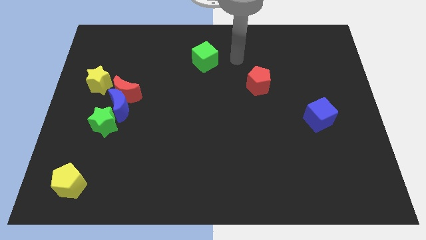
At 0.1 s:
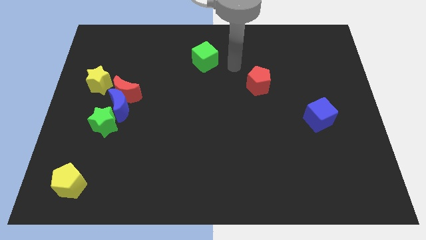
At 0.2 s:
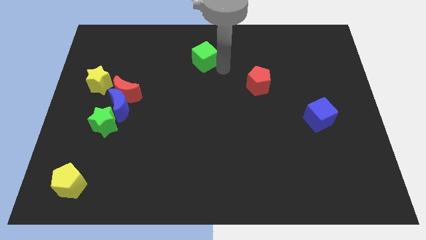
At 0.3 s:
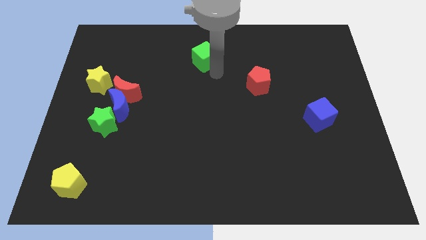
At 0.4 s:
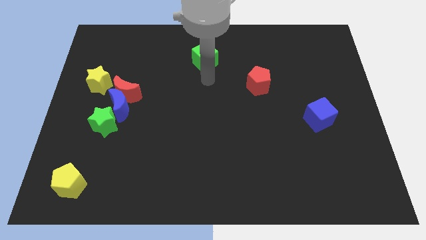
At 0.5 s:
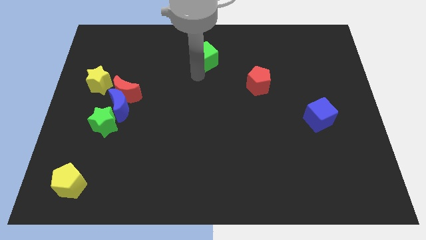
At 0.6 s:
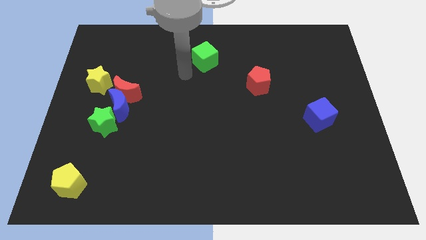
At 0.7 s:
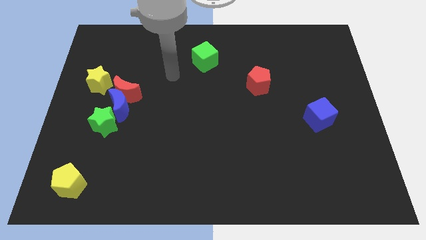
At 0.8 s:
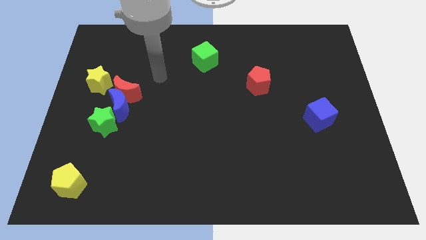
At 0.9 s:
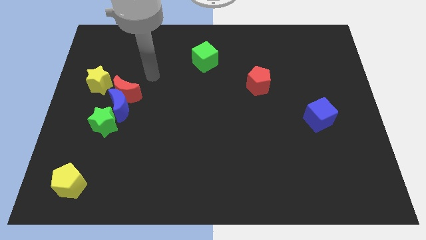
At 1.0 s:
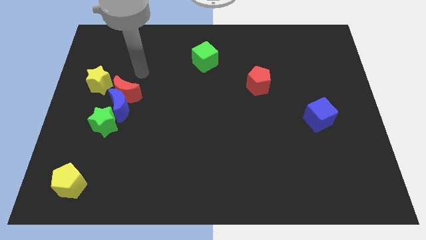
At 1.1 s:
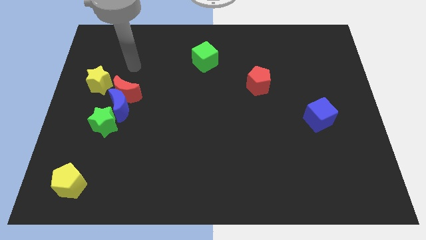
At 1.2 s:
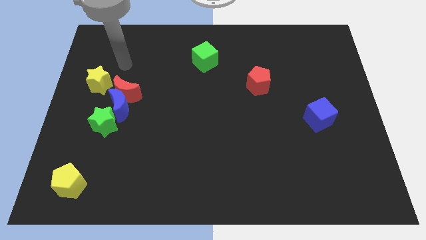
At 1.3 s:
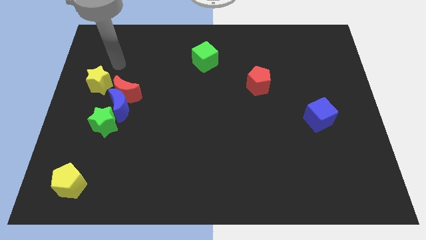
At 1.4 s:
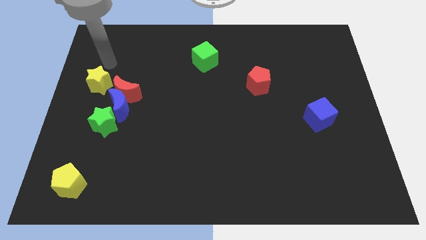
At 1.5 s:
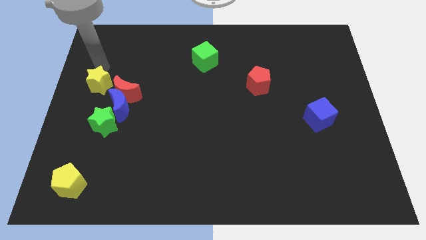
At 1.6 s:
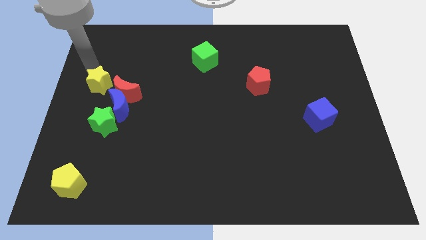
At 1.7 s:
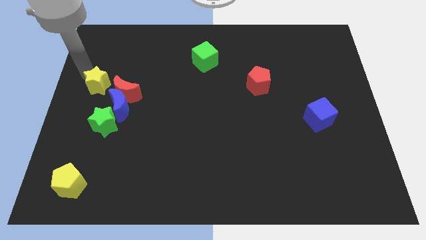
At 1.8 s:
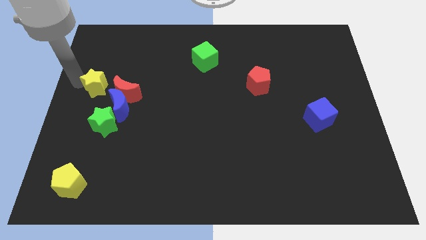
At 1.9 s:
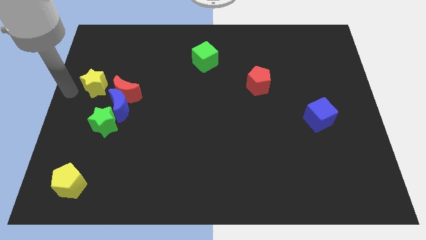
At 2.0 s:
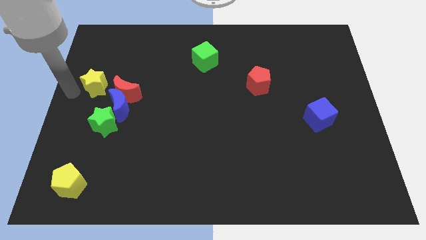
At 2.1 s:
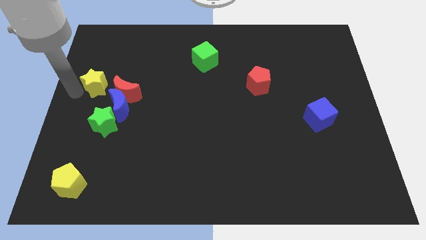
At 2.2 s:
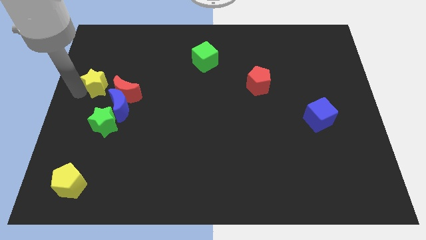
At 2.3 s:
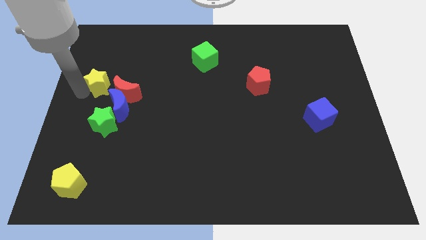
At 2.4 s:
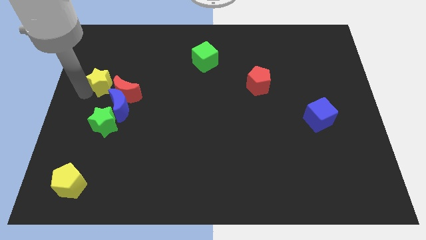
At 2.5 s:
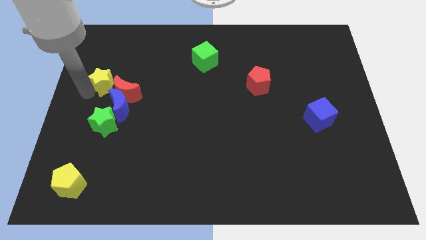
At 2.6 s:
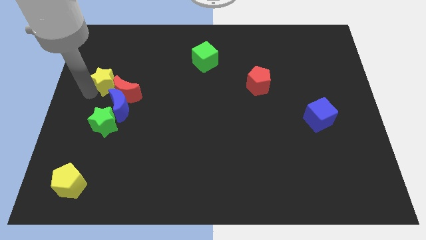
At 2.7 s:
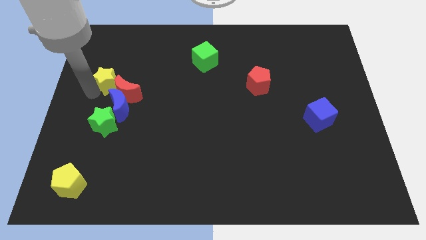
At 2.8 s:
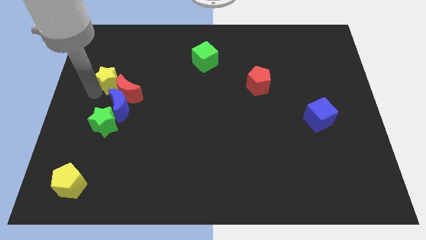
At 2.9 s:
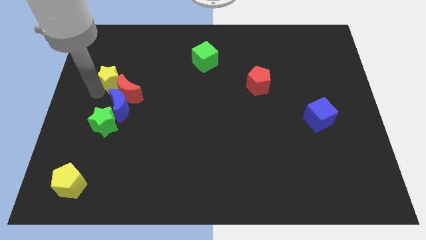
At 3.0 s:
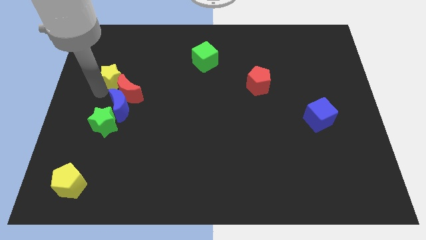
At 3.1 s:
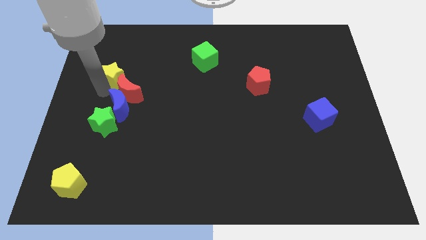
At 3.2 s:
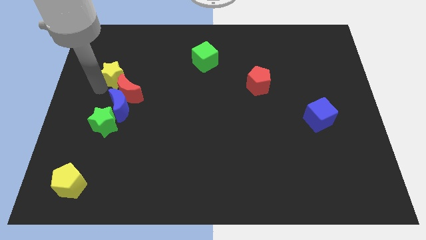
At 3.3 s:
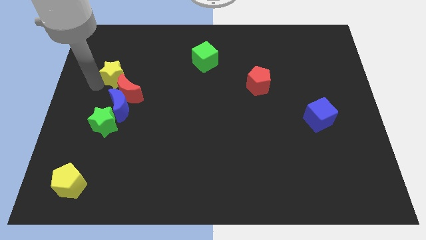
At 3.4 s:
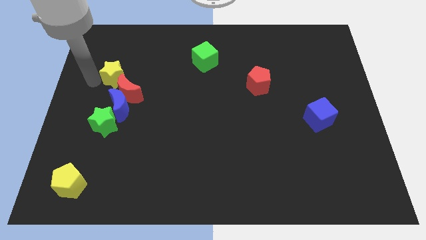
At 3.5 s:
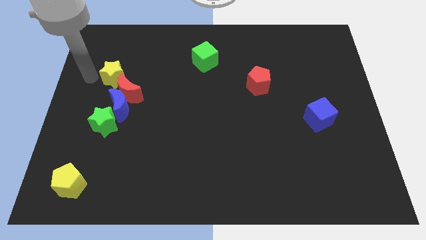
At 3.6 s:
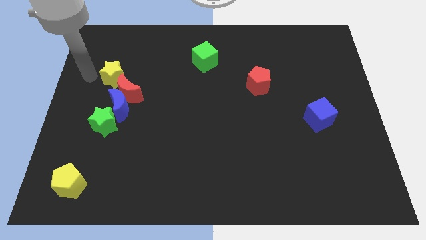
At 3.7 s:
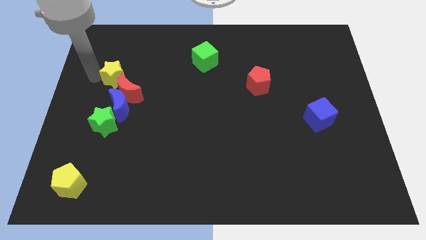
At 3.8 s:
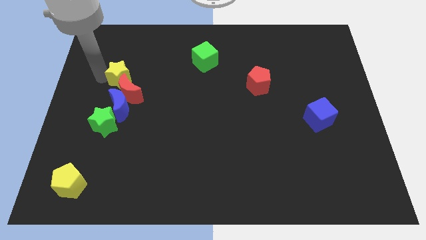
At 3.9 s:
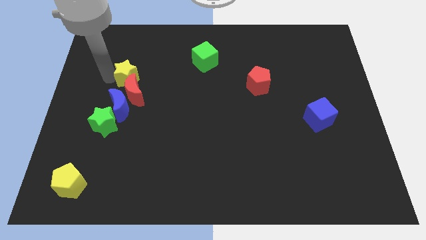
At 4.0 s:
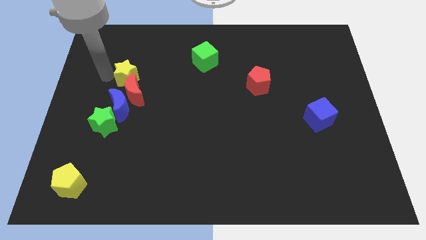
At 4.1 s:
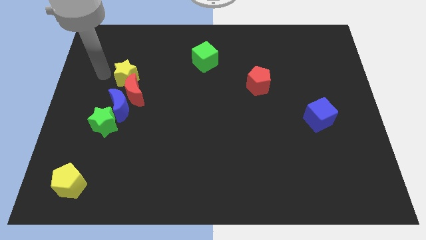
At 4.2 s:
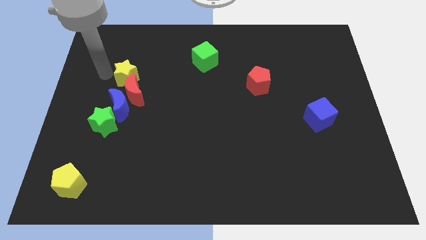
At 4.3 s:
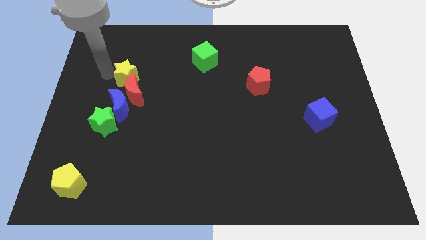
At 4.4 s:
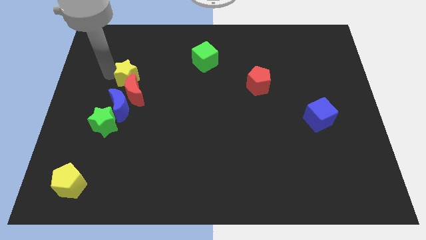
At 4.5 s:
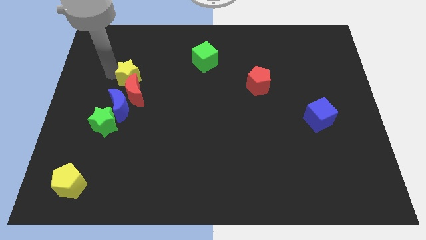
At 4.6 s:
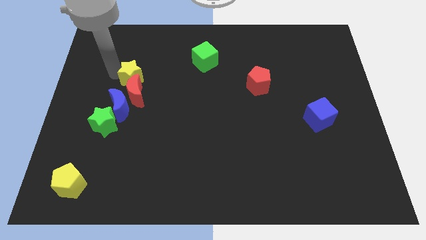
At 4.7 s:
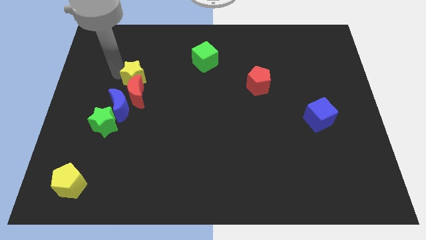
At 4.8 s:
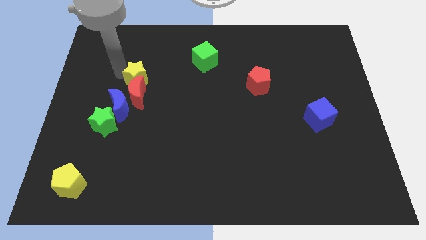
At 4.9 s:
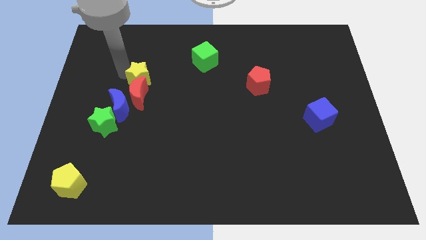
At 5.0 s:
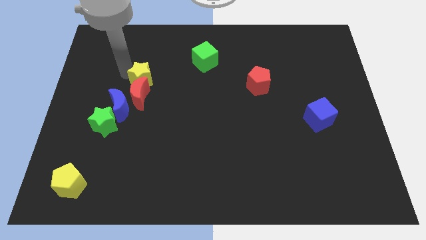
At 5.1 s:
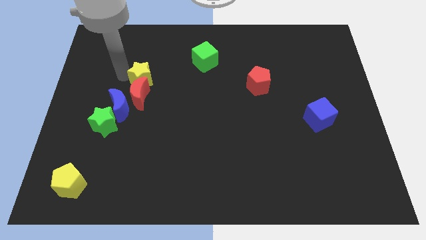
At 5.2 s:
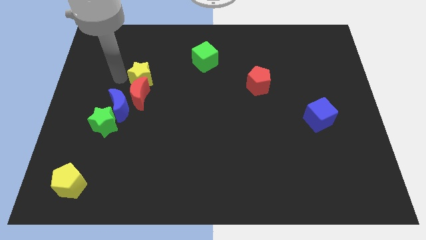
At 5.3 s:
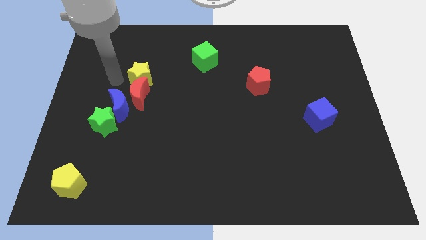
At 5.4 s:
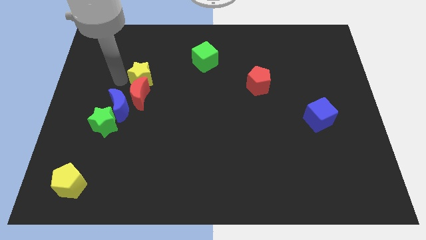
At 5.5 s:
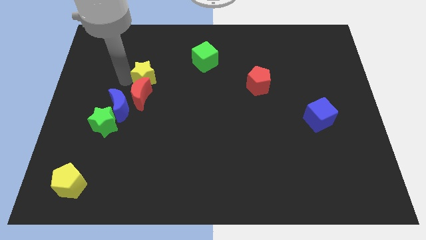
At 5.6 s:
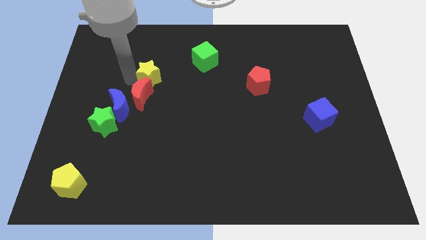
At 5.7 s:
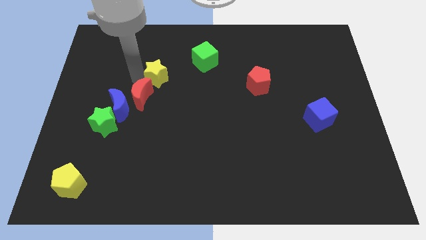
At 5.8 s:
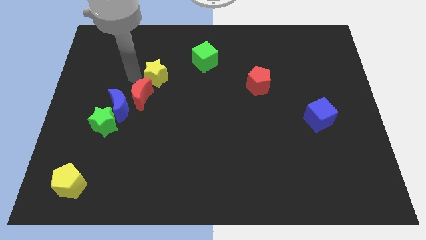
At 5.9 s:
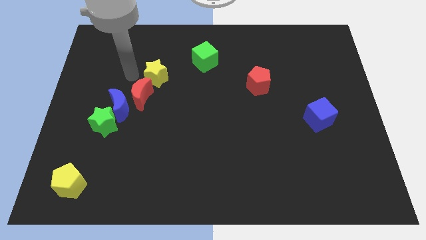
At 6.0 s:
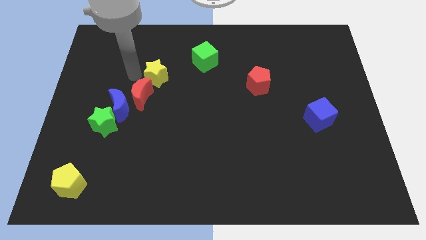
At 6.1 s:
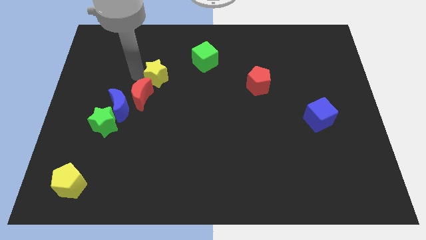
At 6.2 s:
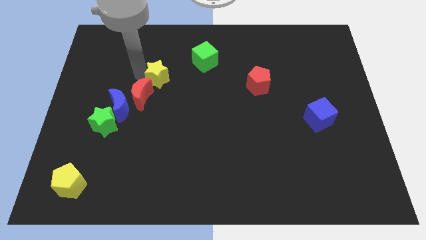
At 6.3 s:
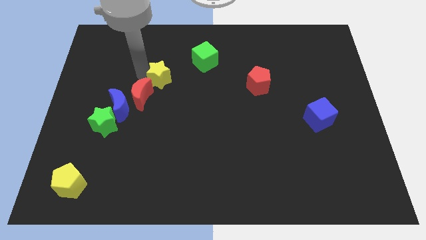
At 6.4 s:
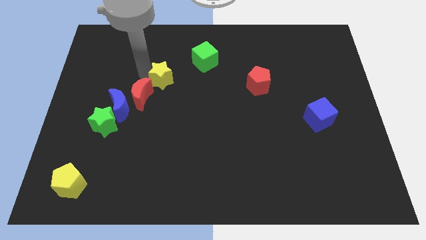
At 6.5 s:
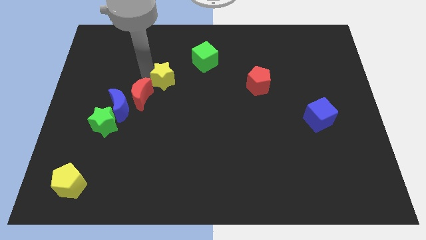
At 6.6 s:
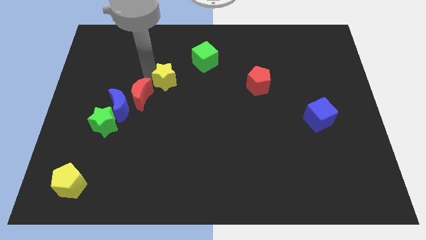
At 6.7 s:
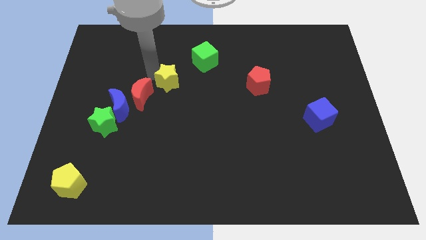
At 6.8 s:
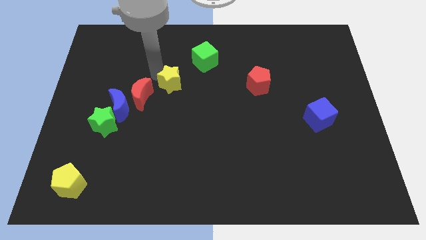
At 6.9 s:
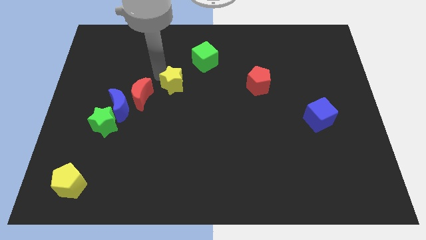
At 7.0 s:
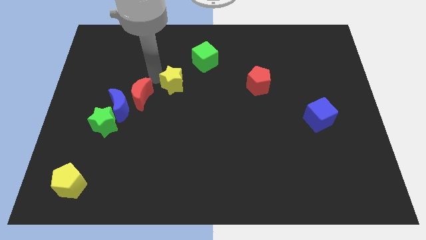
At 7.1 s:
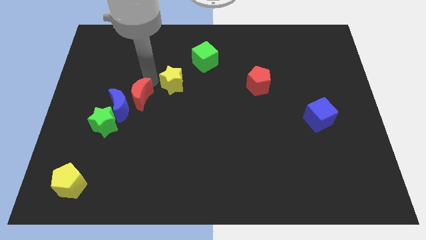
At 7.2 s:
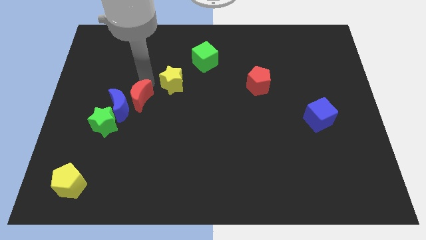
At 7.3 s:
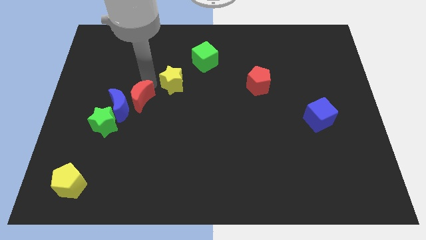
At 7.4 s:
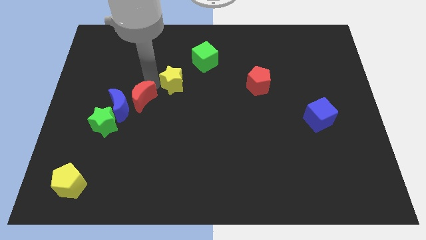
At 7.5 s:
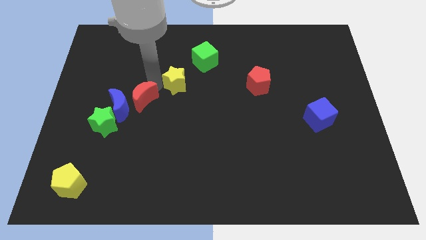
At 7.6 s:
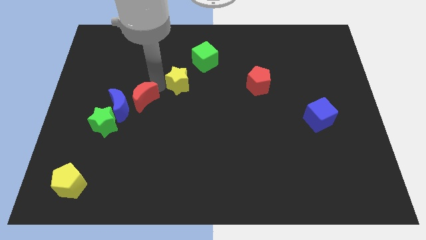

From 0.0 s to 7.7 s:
slide the yellow star to the right

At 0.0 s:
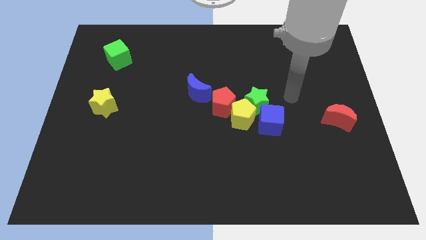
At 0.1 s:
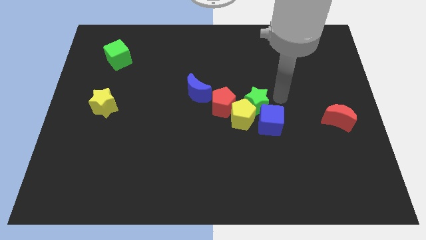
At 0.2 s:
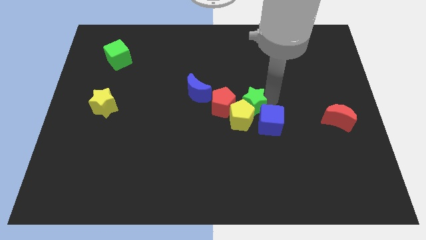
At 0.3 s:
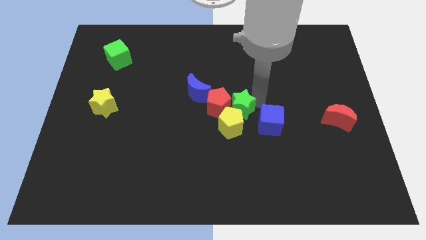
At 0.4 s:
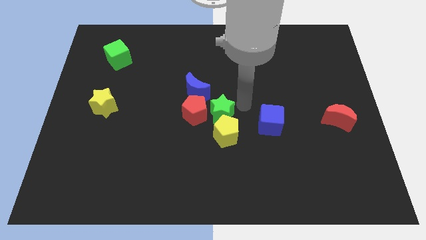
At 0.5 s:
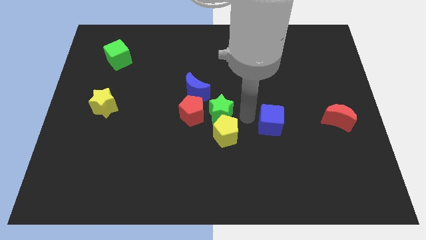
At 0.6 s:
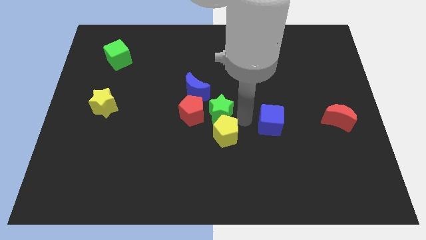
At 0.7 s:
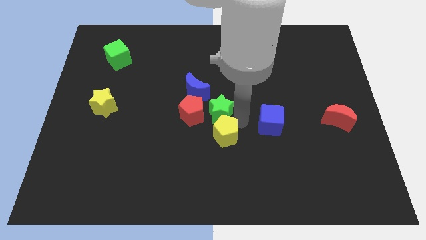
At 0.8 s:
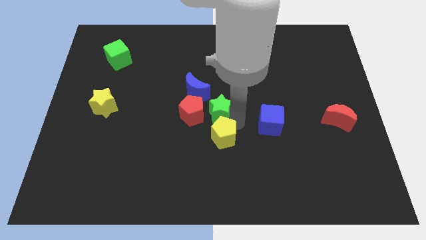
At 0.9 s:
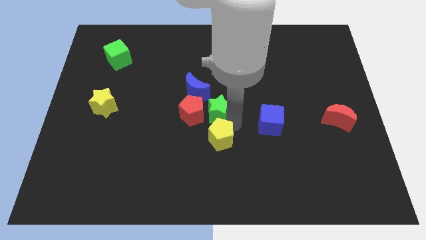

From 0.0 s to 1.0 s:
push the yellow pentagon down and to the left somewhat
